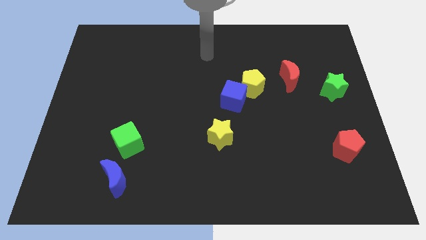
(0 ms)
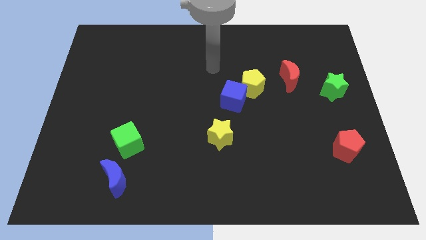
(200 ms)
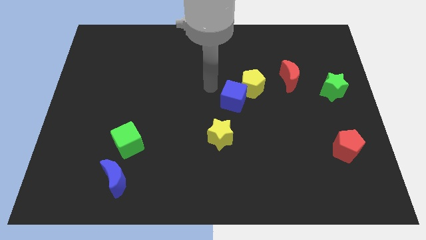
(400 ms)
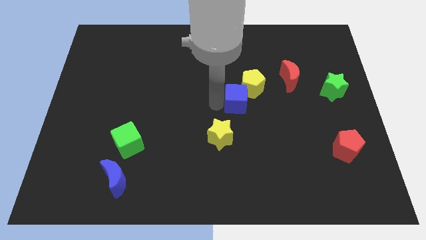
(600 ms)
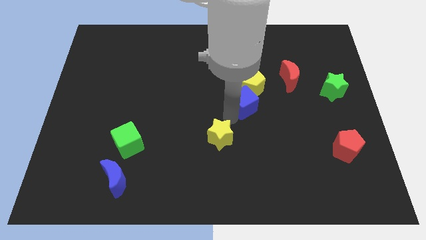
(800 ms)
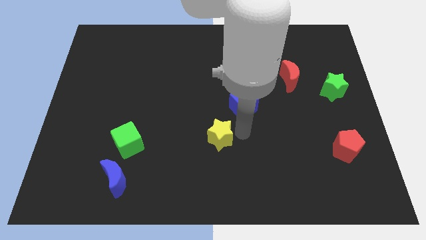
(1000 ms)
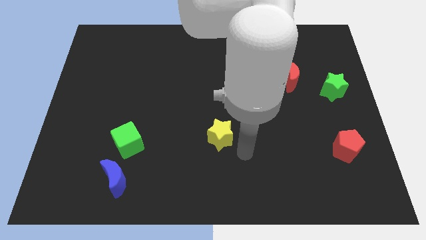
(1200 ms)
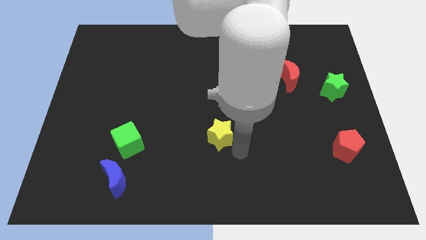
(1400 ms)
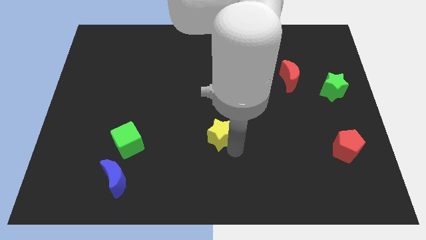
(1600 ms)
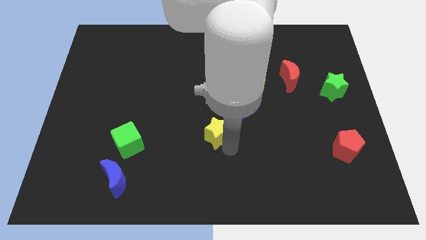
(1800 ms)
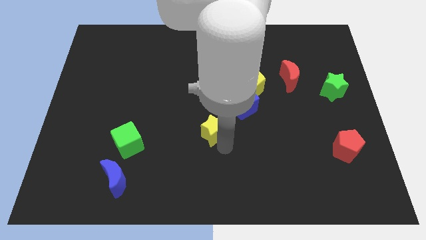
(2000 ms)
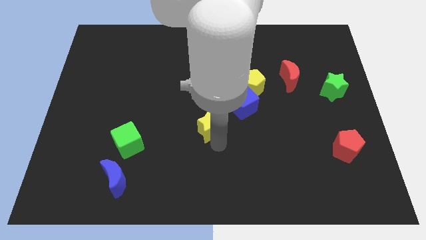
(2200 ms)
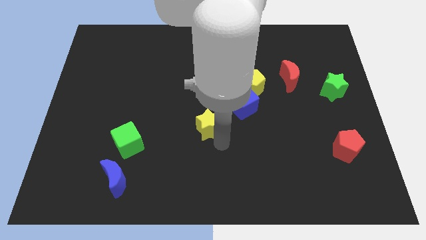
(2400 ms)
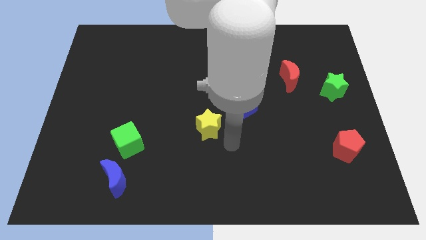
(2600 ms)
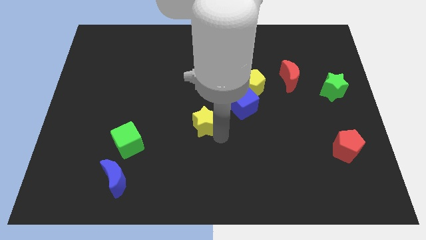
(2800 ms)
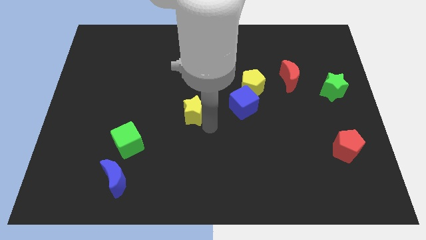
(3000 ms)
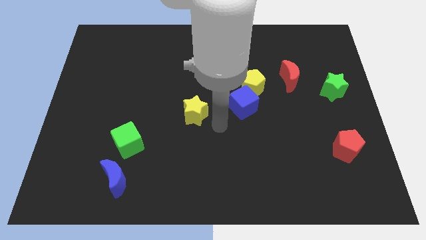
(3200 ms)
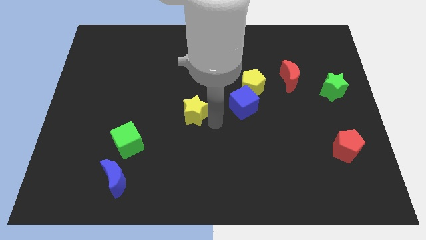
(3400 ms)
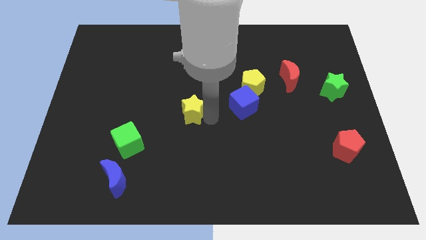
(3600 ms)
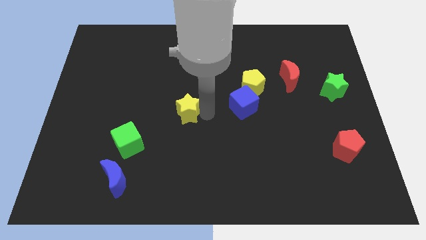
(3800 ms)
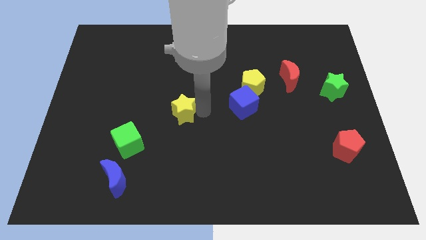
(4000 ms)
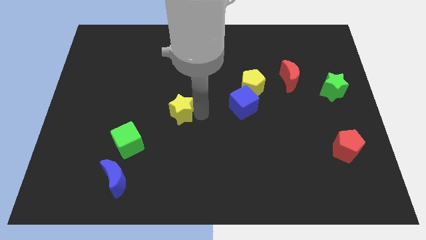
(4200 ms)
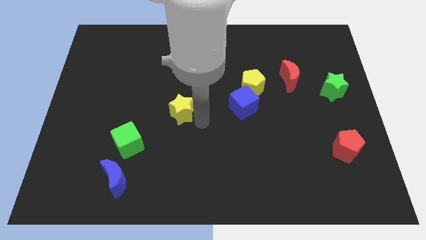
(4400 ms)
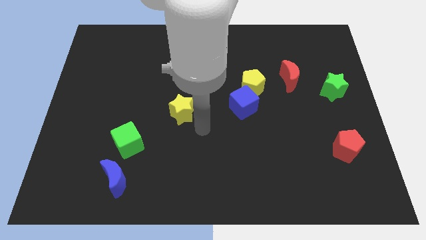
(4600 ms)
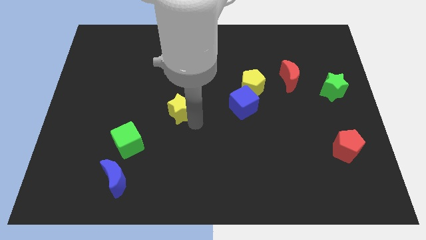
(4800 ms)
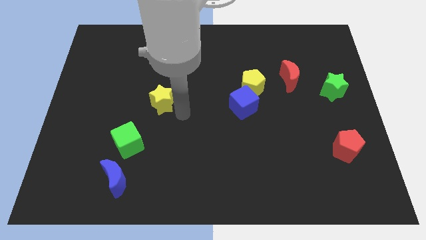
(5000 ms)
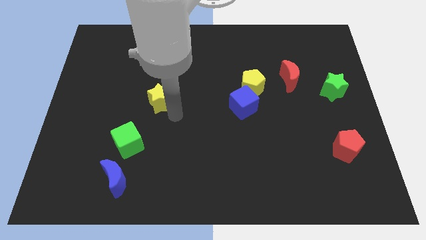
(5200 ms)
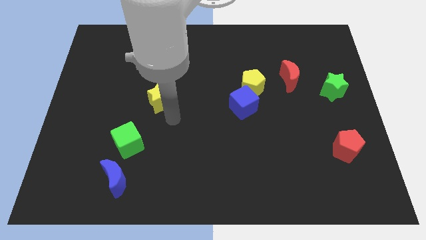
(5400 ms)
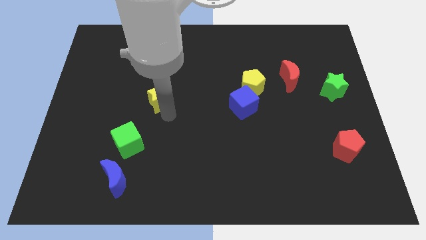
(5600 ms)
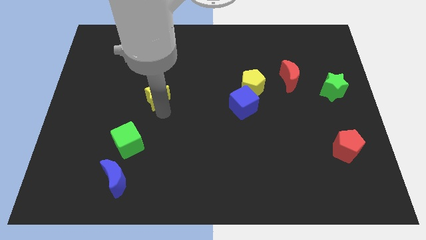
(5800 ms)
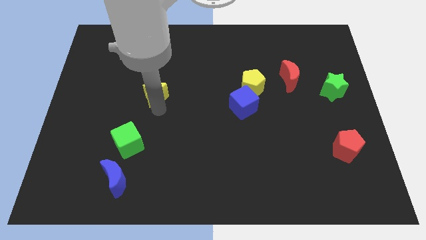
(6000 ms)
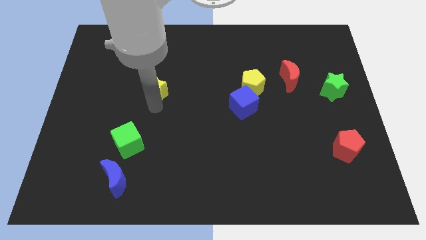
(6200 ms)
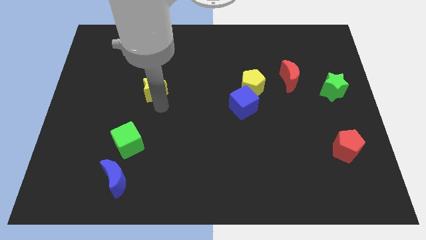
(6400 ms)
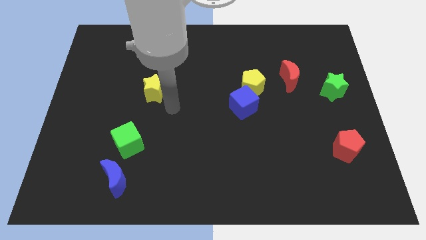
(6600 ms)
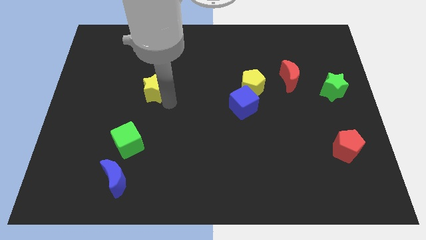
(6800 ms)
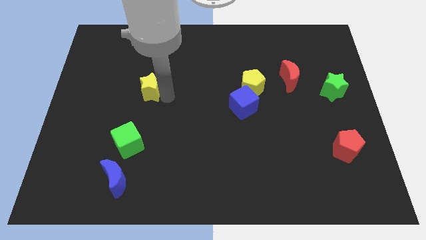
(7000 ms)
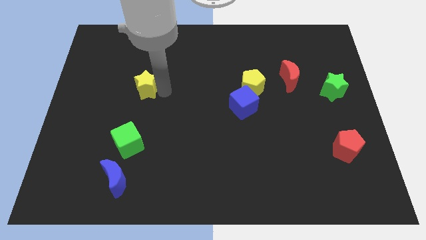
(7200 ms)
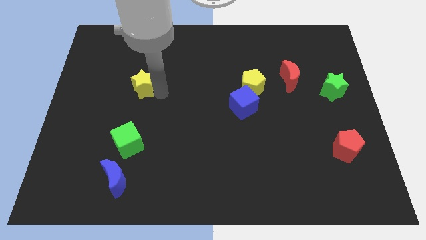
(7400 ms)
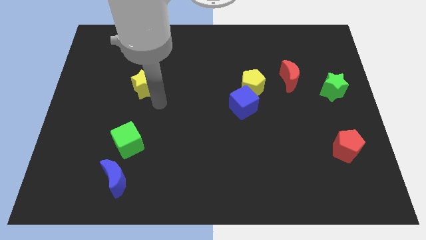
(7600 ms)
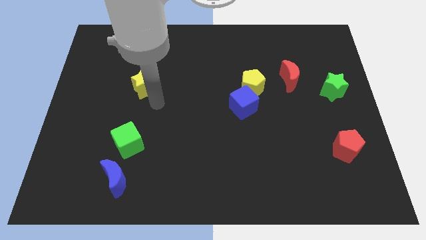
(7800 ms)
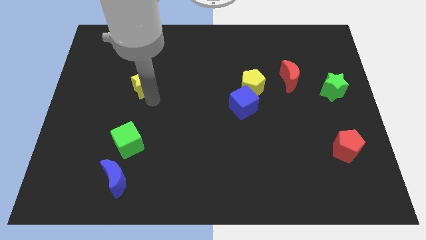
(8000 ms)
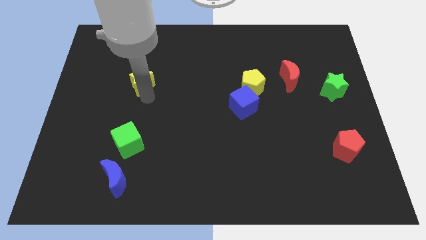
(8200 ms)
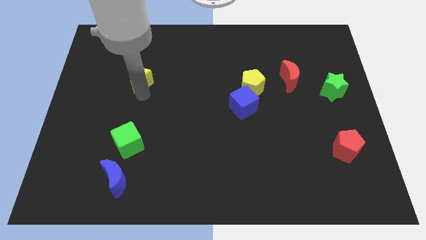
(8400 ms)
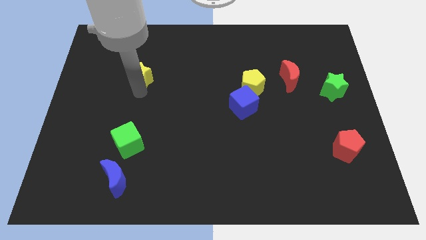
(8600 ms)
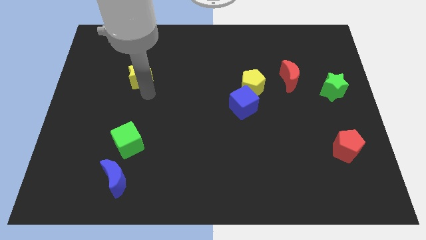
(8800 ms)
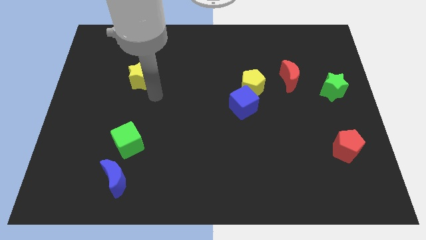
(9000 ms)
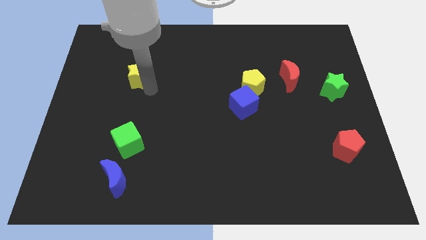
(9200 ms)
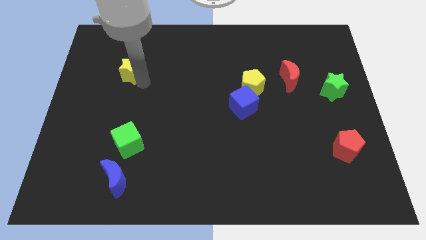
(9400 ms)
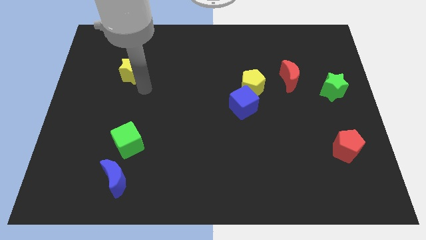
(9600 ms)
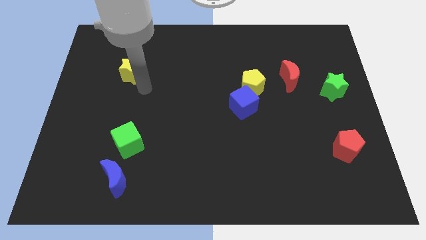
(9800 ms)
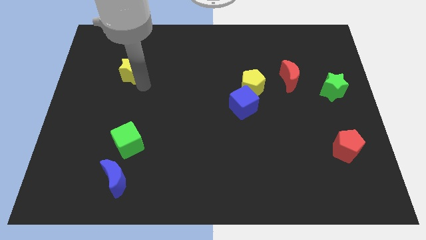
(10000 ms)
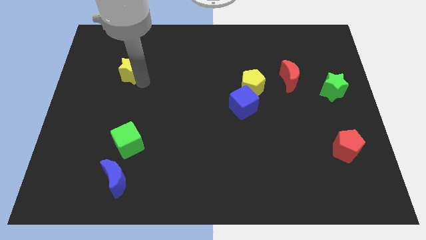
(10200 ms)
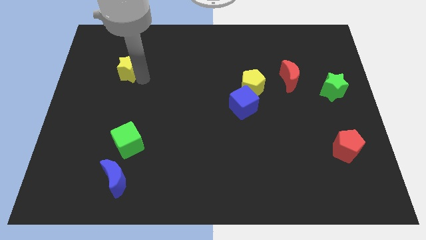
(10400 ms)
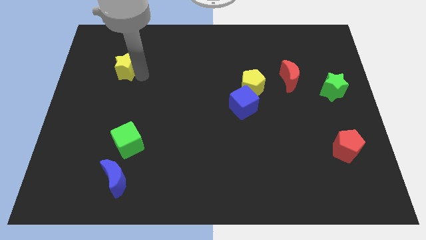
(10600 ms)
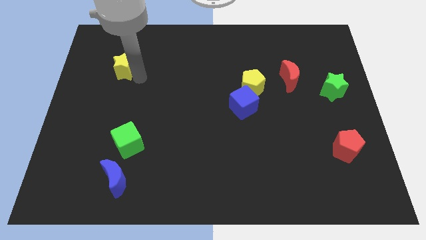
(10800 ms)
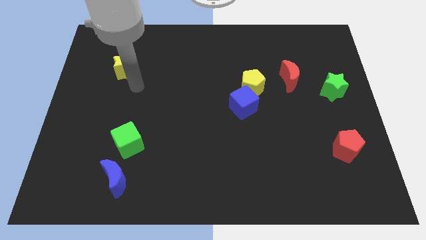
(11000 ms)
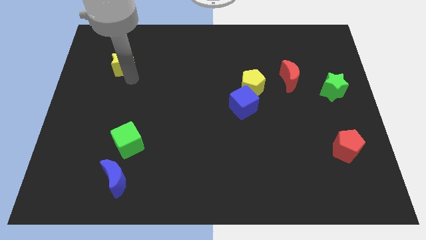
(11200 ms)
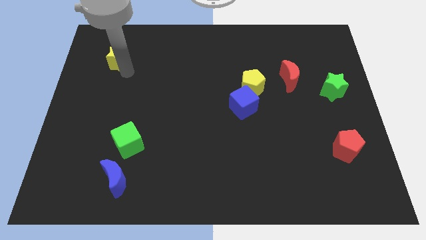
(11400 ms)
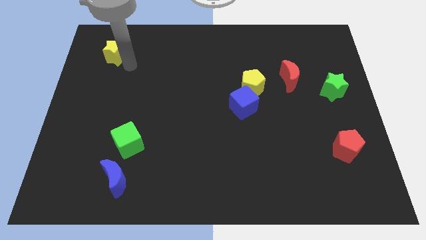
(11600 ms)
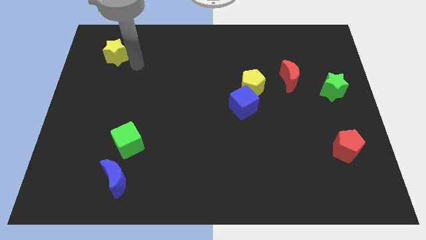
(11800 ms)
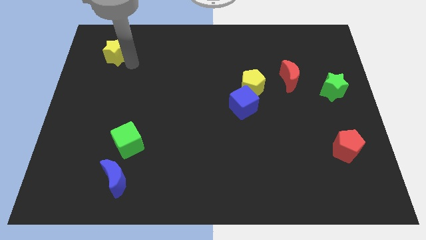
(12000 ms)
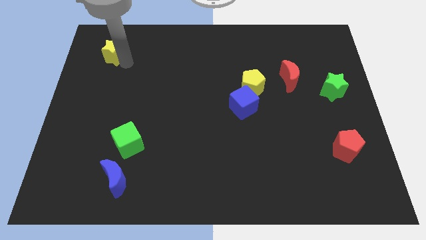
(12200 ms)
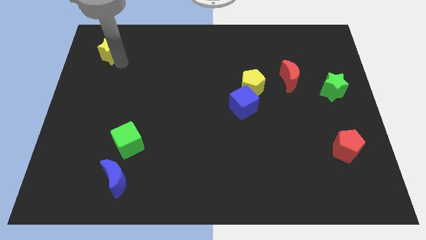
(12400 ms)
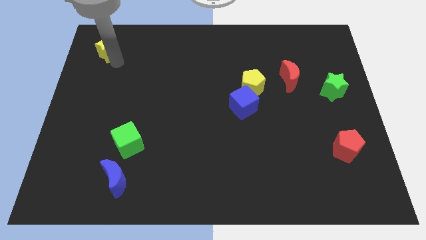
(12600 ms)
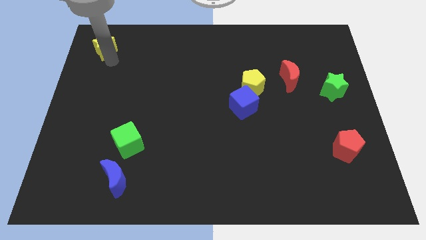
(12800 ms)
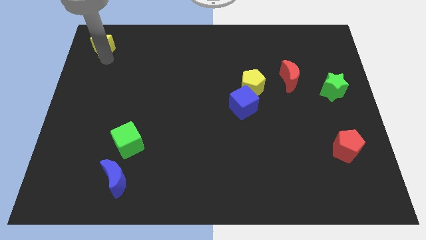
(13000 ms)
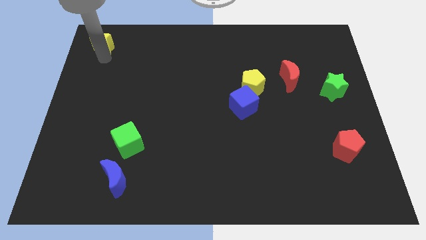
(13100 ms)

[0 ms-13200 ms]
slide the yellow star to the top left

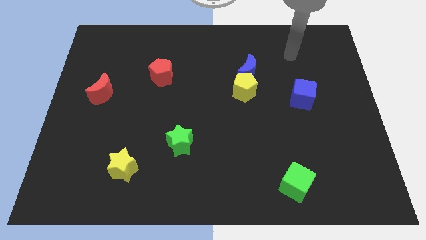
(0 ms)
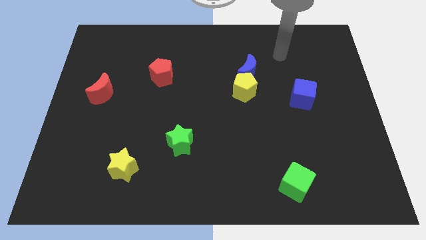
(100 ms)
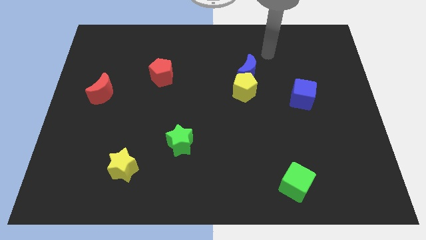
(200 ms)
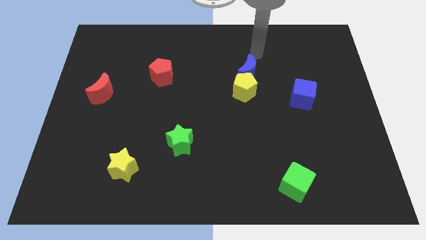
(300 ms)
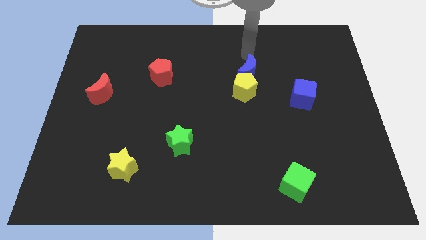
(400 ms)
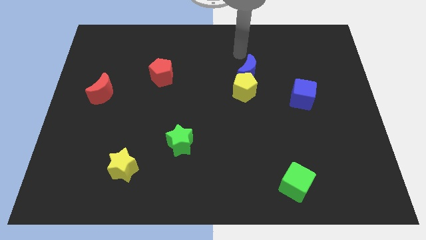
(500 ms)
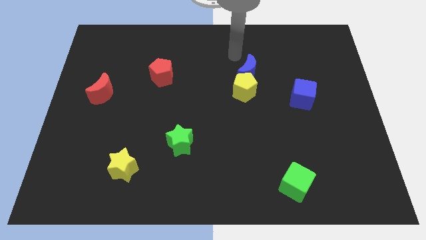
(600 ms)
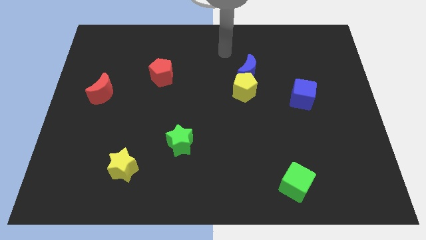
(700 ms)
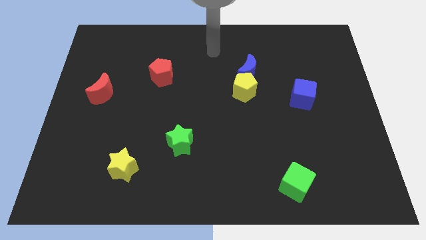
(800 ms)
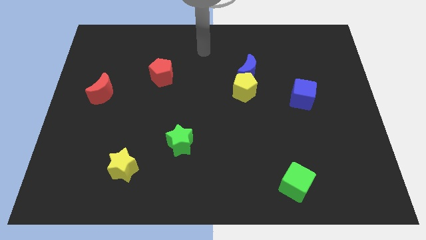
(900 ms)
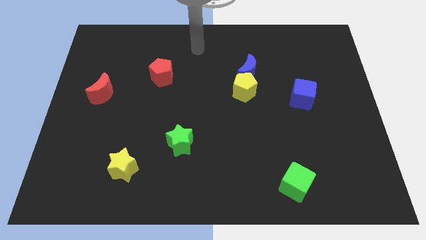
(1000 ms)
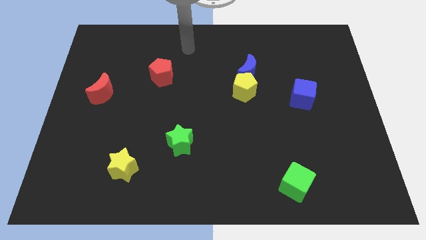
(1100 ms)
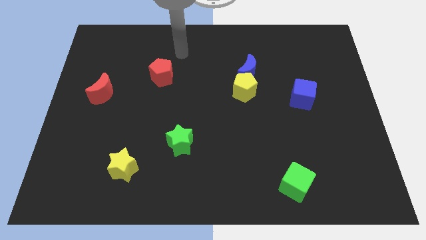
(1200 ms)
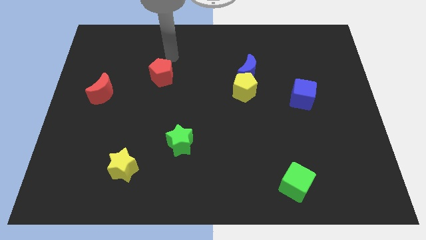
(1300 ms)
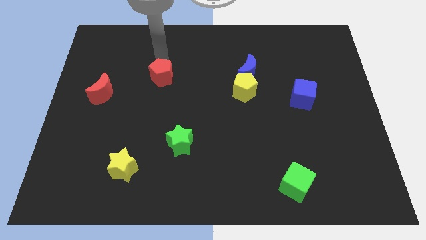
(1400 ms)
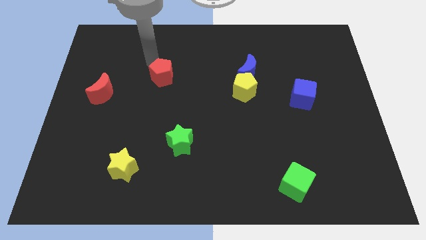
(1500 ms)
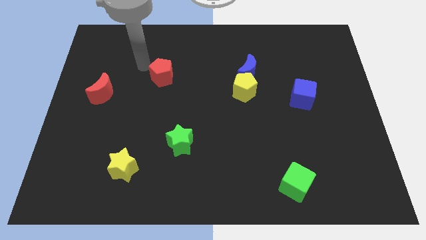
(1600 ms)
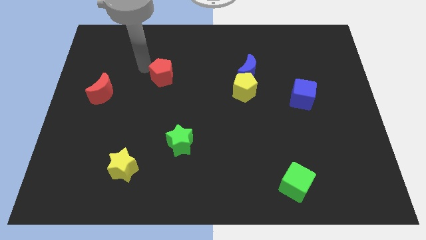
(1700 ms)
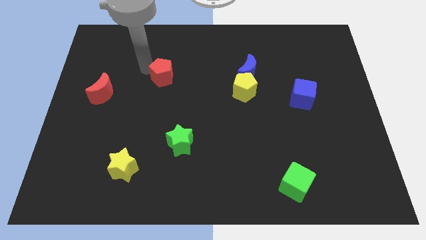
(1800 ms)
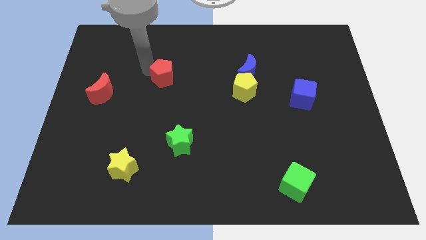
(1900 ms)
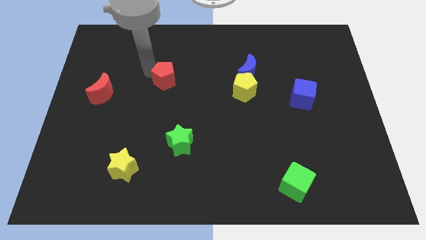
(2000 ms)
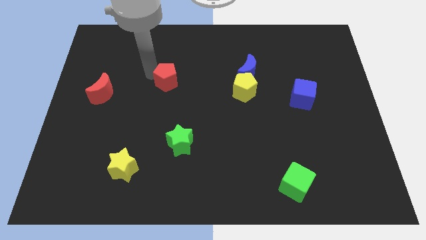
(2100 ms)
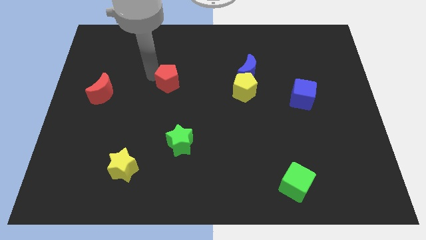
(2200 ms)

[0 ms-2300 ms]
move the red pentagon to the middle
